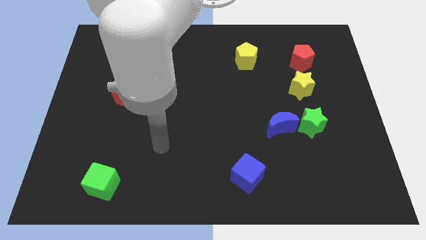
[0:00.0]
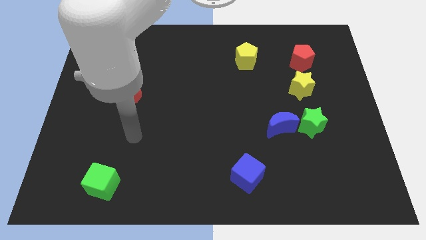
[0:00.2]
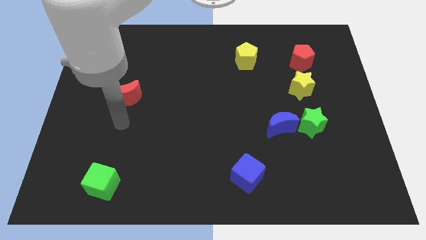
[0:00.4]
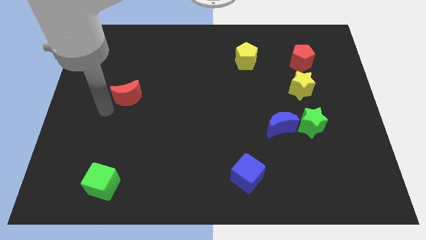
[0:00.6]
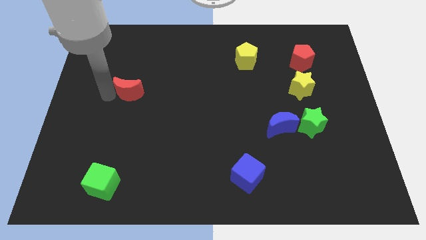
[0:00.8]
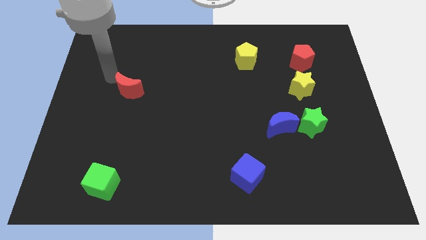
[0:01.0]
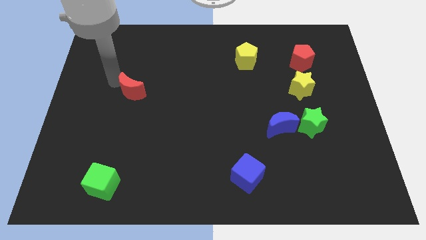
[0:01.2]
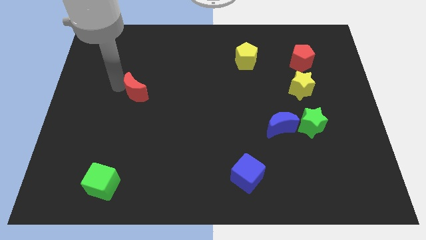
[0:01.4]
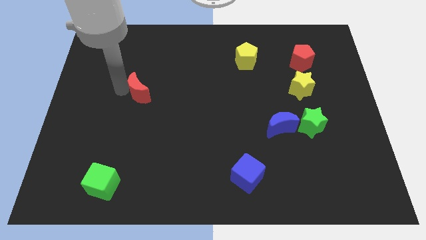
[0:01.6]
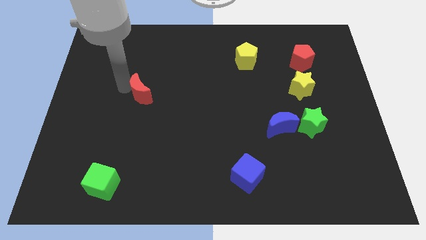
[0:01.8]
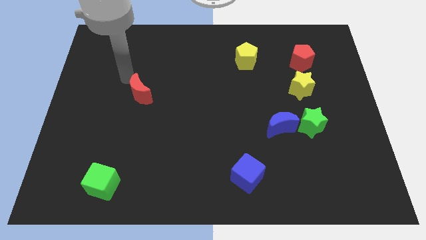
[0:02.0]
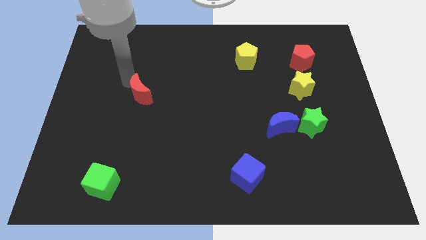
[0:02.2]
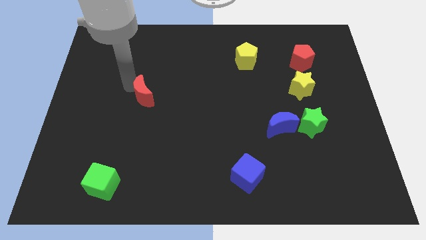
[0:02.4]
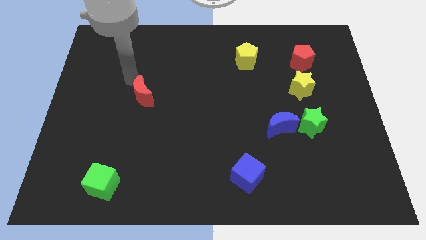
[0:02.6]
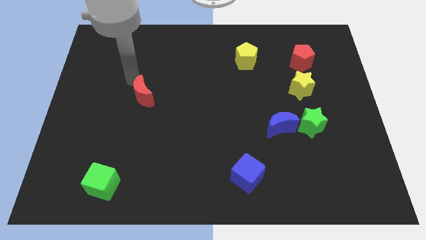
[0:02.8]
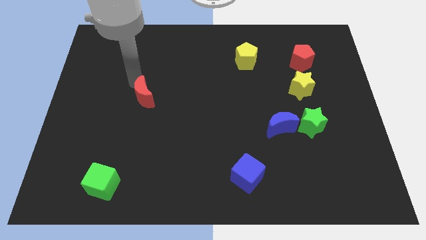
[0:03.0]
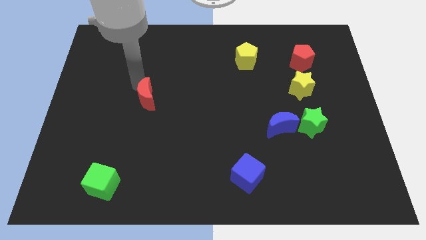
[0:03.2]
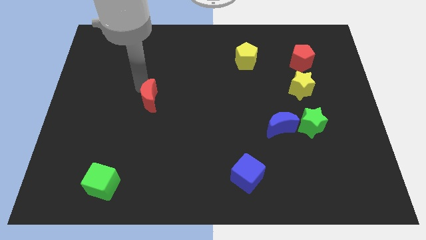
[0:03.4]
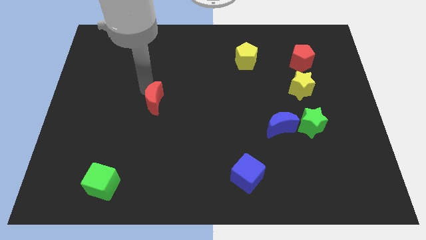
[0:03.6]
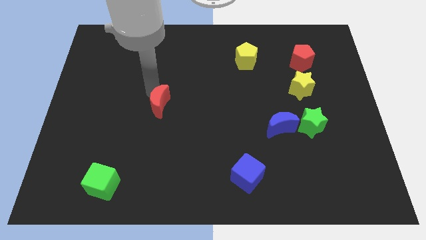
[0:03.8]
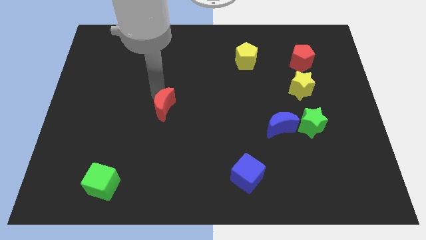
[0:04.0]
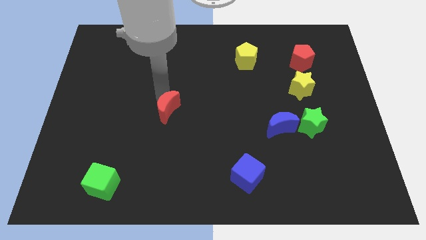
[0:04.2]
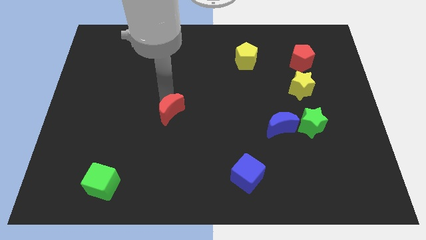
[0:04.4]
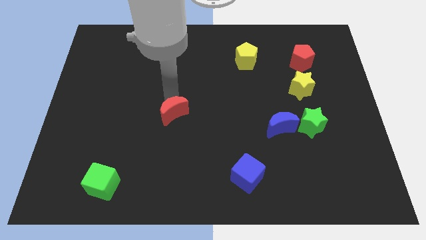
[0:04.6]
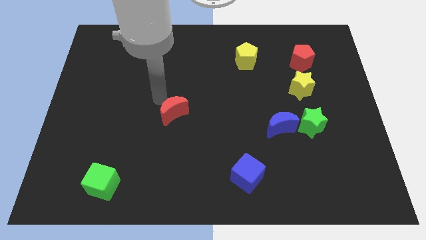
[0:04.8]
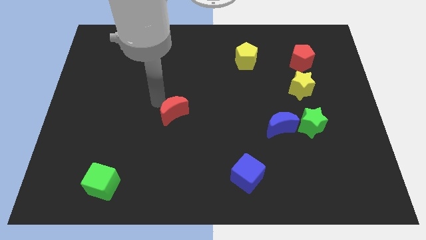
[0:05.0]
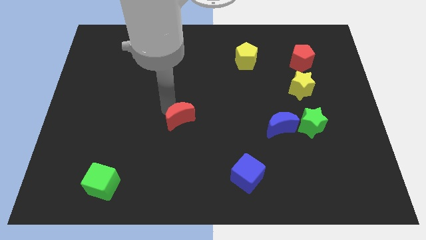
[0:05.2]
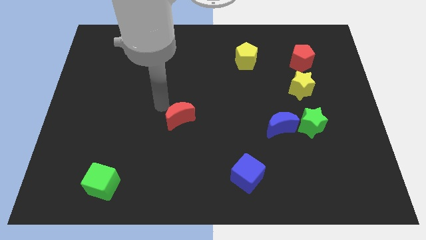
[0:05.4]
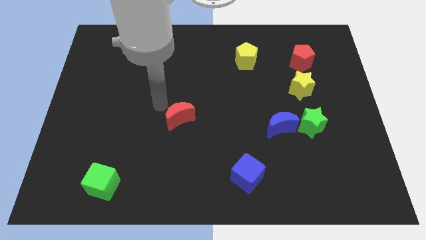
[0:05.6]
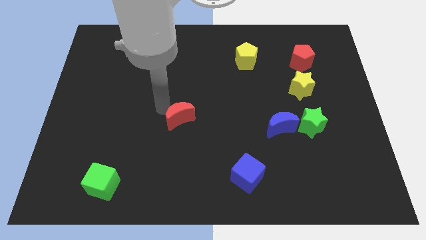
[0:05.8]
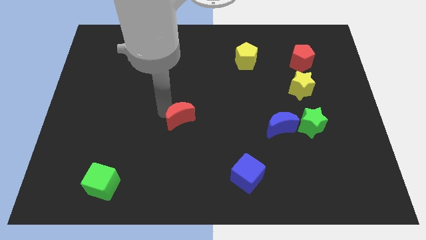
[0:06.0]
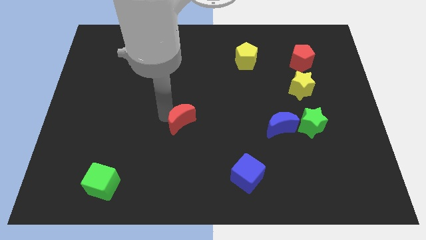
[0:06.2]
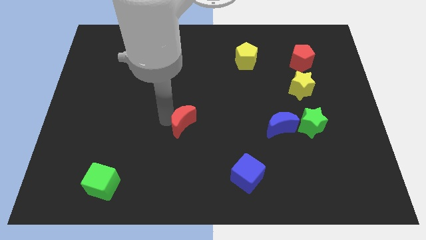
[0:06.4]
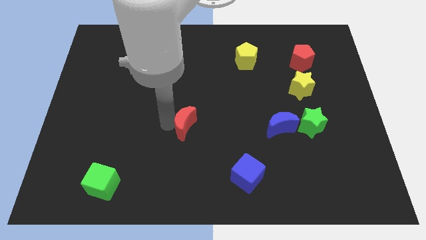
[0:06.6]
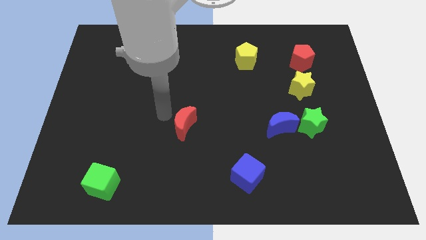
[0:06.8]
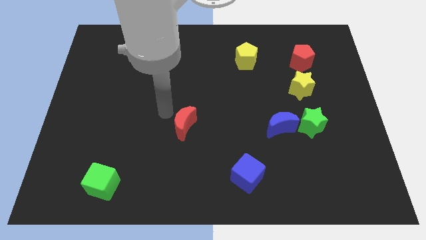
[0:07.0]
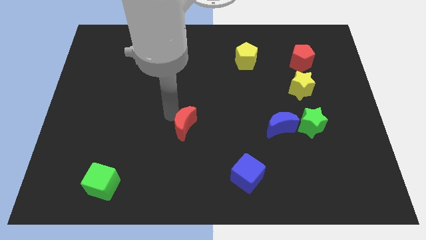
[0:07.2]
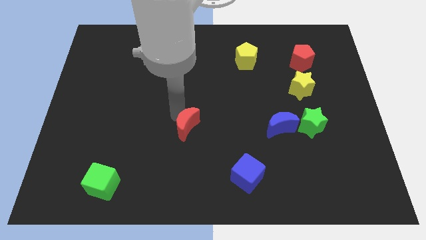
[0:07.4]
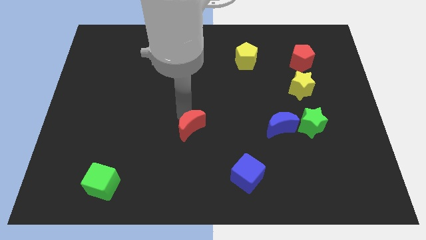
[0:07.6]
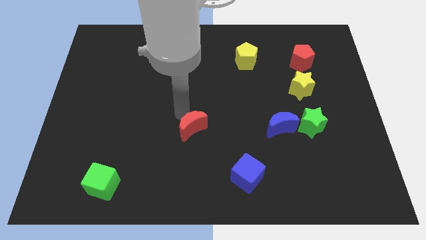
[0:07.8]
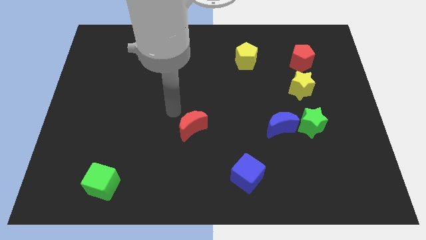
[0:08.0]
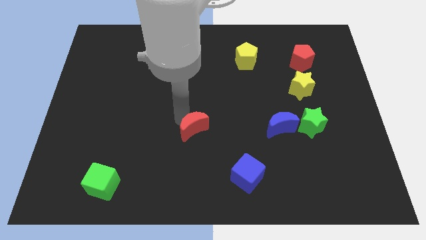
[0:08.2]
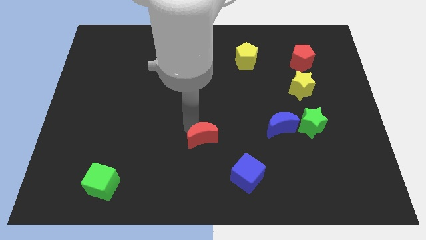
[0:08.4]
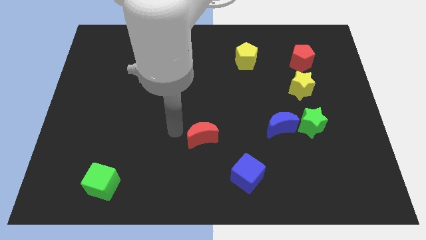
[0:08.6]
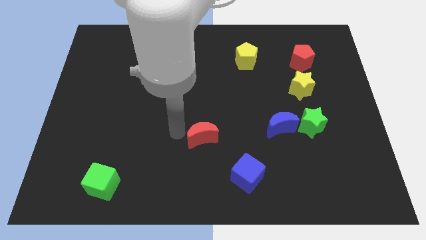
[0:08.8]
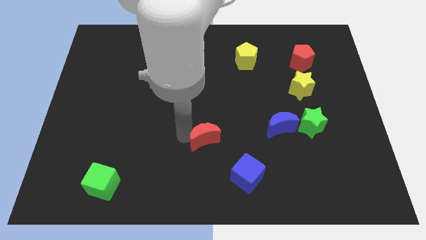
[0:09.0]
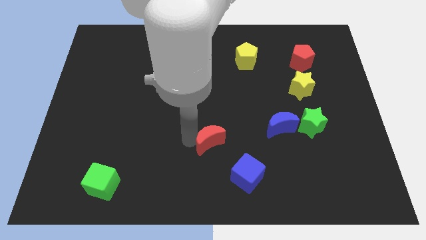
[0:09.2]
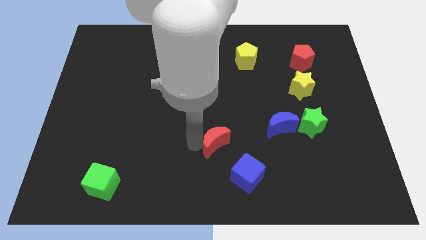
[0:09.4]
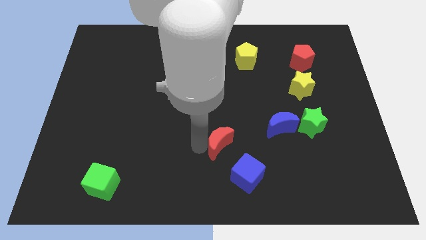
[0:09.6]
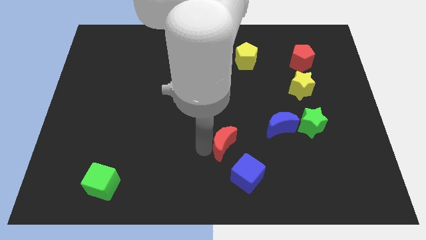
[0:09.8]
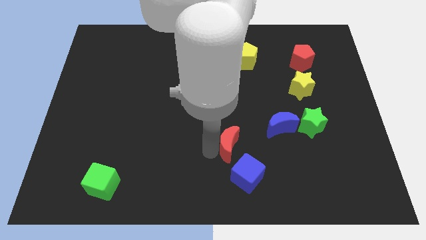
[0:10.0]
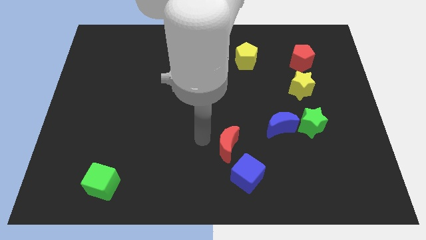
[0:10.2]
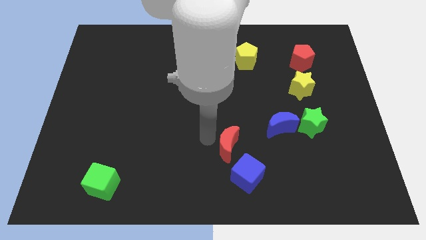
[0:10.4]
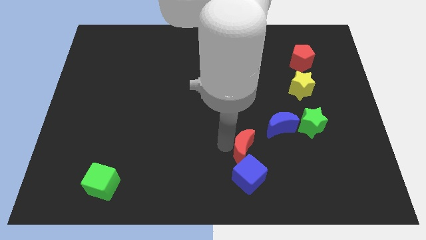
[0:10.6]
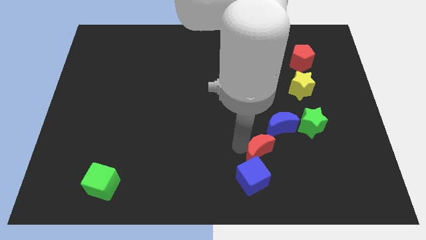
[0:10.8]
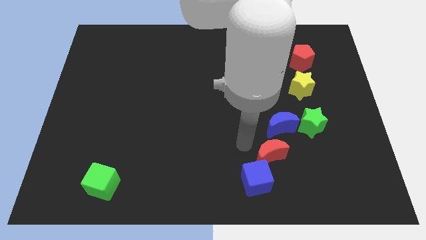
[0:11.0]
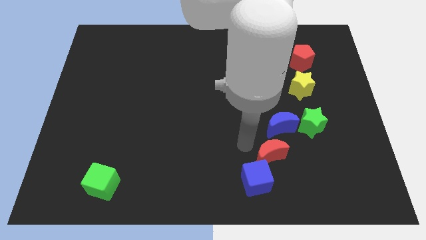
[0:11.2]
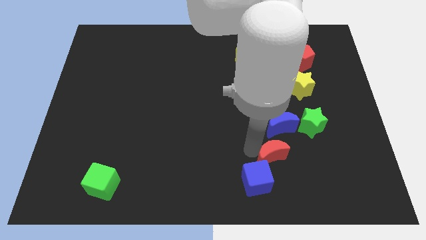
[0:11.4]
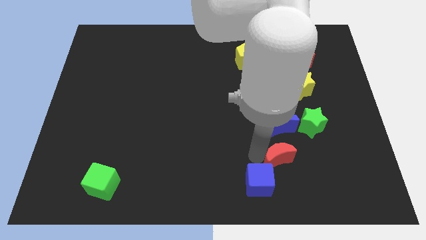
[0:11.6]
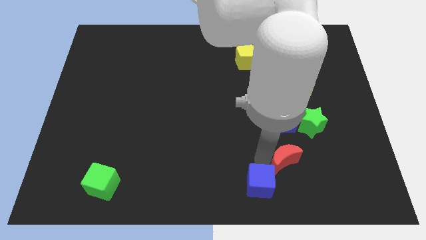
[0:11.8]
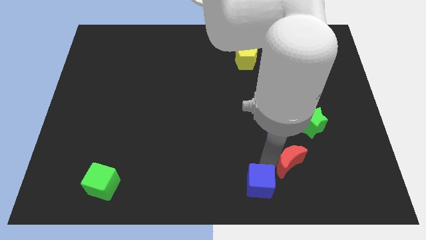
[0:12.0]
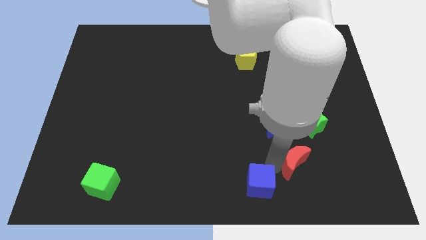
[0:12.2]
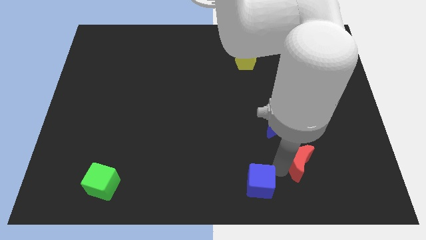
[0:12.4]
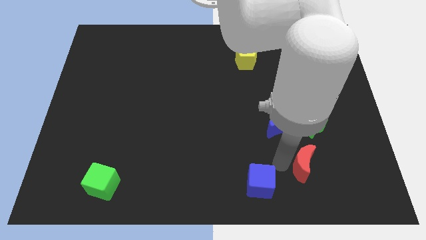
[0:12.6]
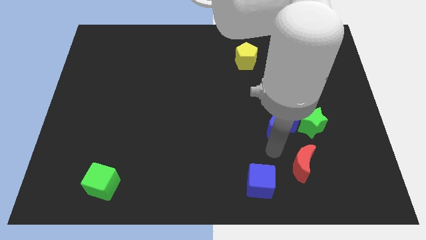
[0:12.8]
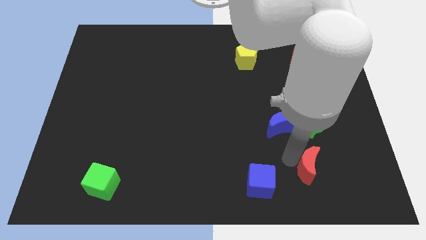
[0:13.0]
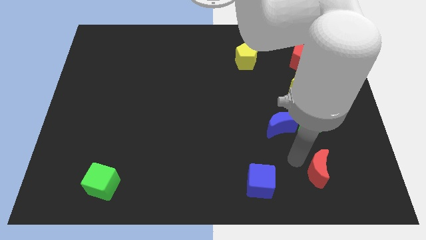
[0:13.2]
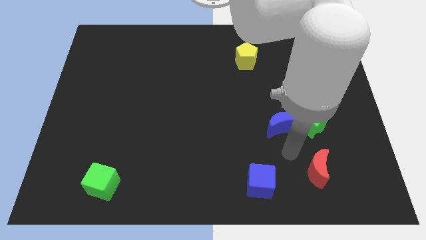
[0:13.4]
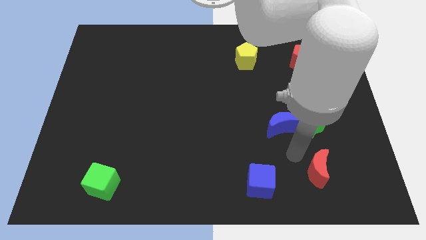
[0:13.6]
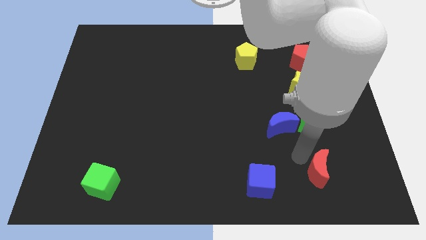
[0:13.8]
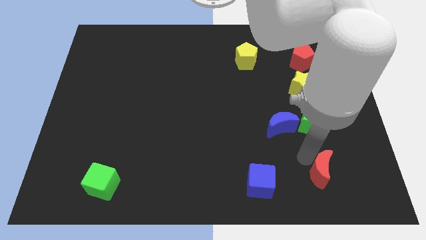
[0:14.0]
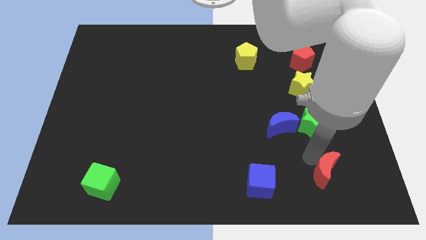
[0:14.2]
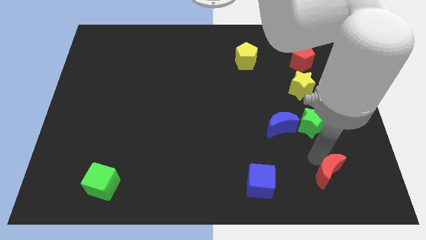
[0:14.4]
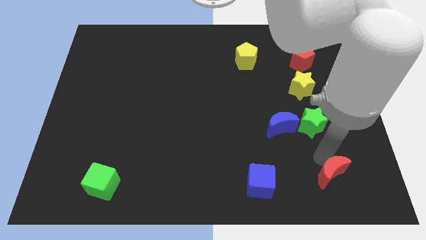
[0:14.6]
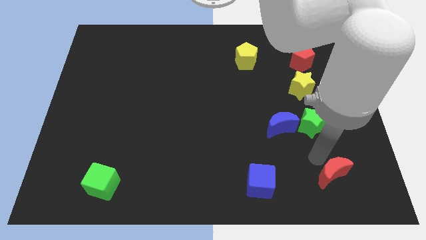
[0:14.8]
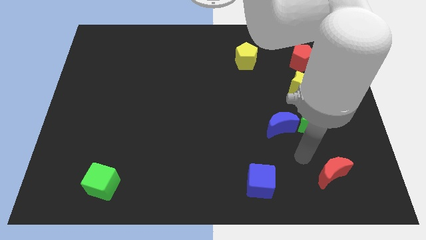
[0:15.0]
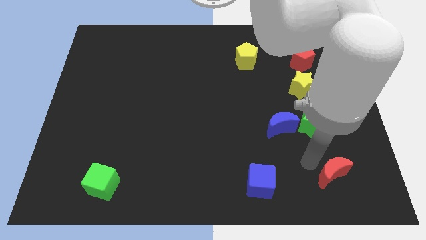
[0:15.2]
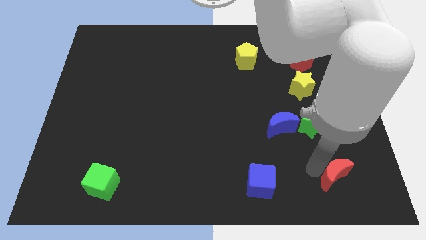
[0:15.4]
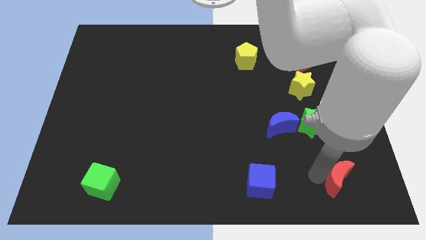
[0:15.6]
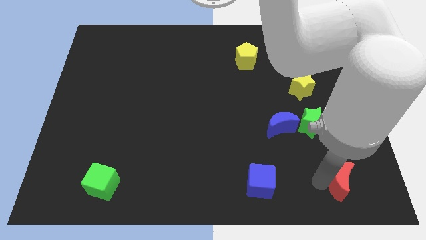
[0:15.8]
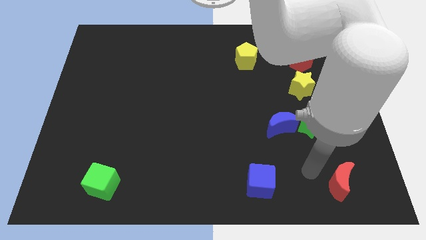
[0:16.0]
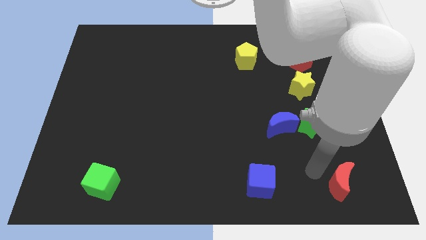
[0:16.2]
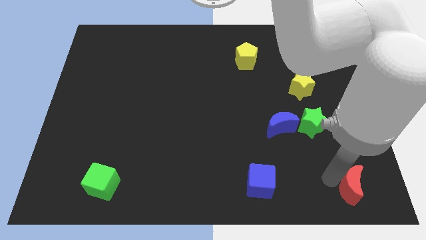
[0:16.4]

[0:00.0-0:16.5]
slide the red moon to the bottom right of the board
